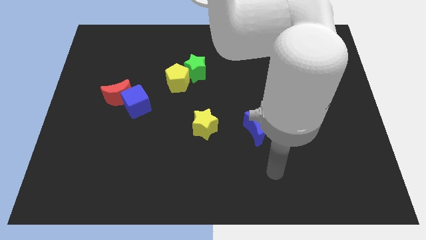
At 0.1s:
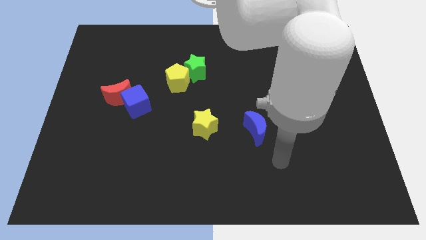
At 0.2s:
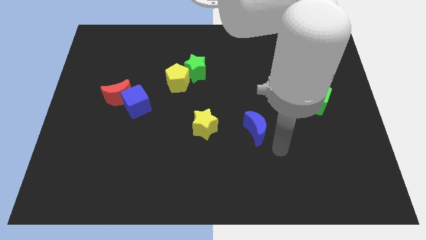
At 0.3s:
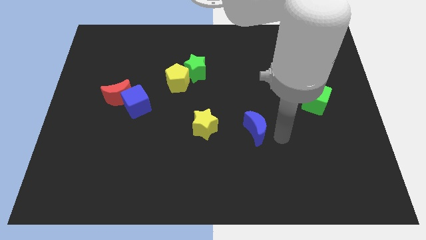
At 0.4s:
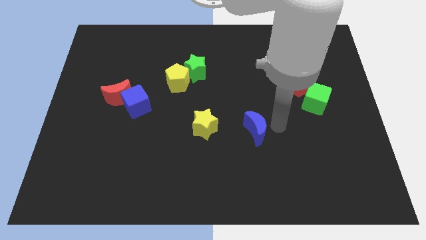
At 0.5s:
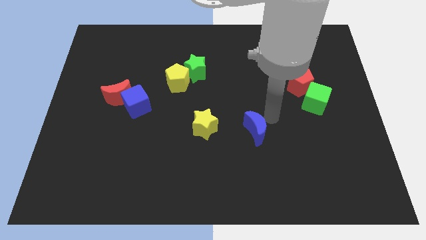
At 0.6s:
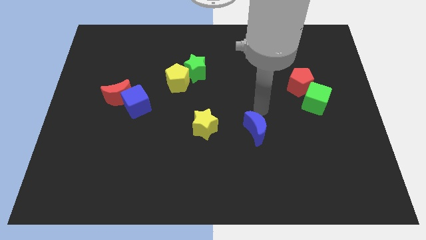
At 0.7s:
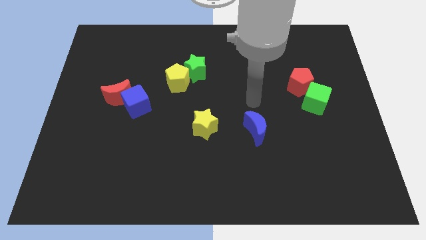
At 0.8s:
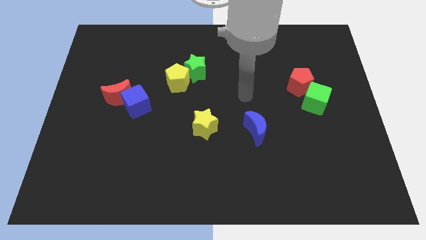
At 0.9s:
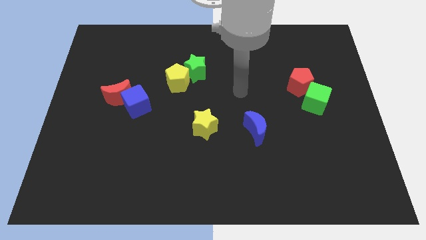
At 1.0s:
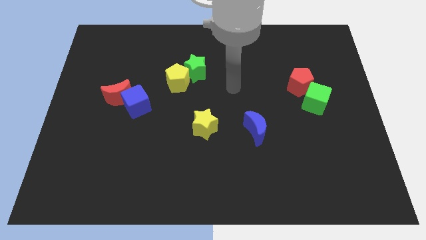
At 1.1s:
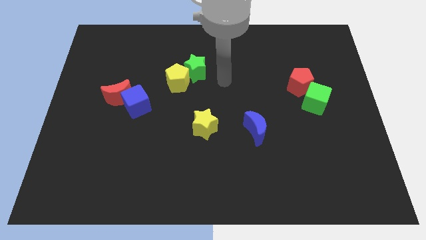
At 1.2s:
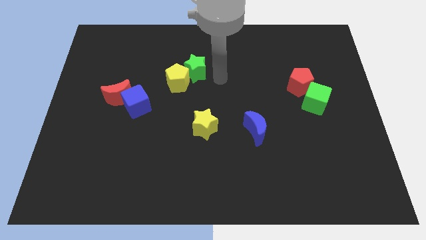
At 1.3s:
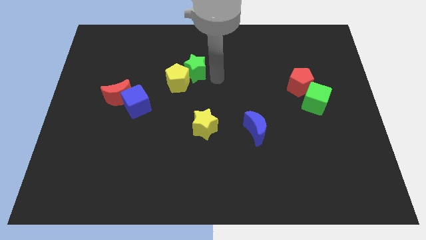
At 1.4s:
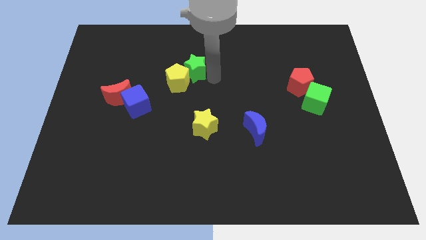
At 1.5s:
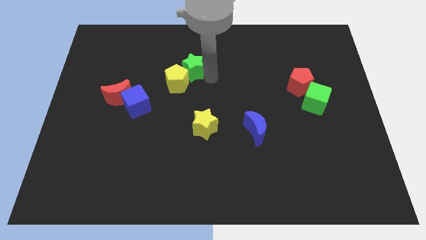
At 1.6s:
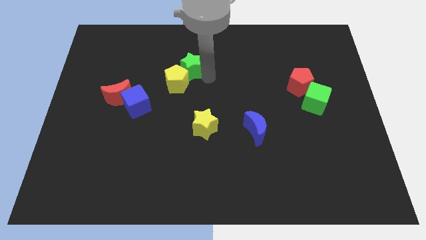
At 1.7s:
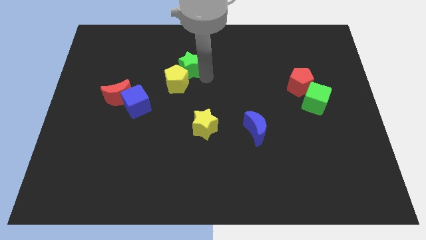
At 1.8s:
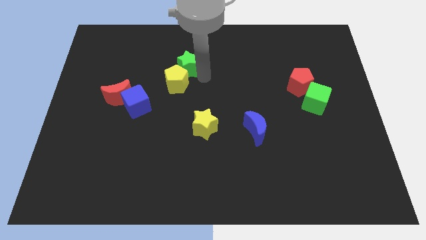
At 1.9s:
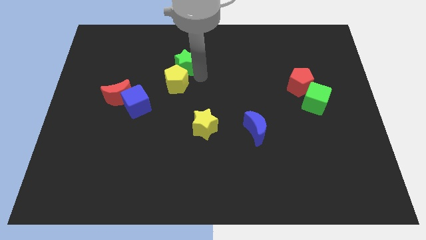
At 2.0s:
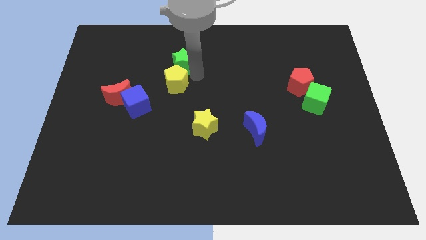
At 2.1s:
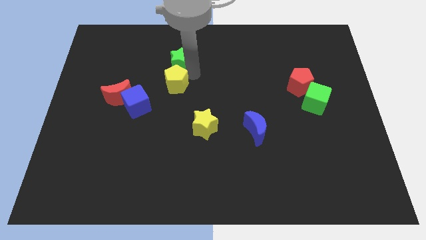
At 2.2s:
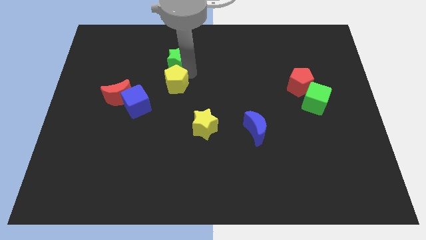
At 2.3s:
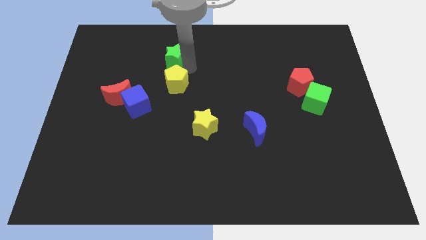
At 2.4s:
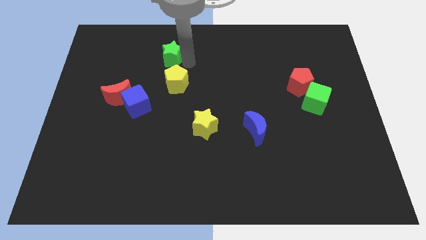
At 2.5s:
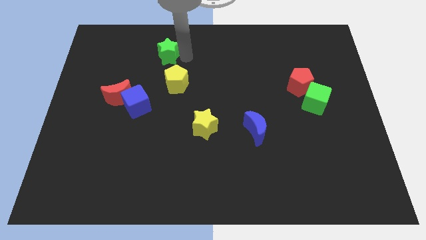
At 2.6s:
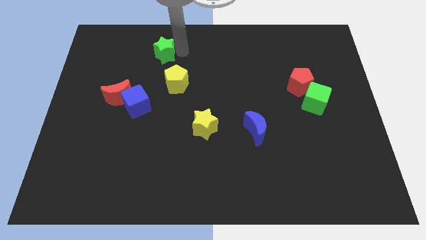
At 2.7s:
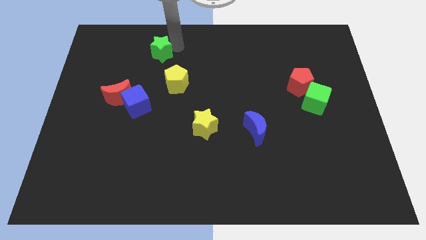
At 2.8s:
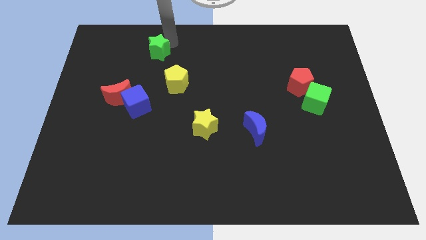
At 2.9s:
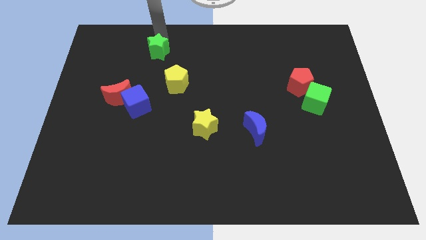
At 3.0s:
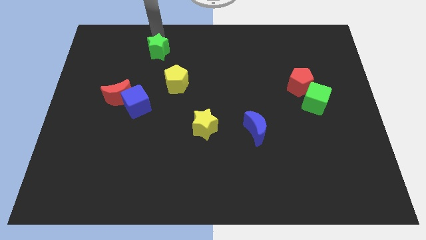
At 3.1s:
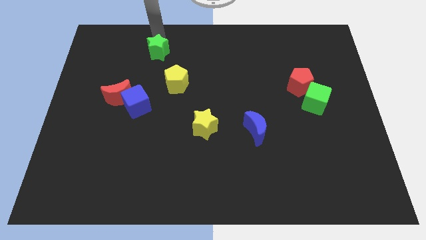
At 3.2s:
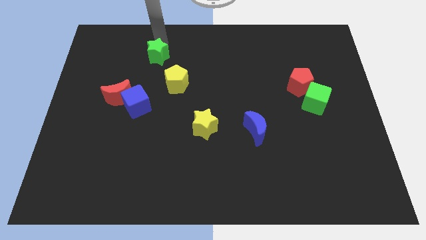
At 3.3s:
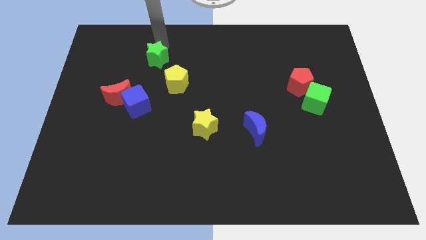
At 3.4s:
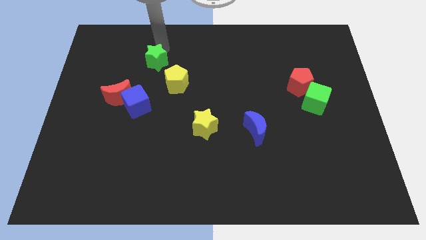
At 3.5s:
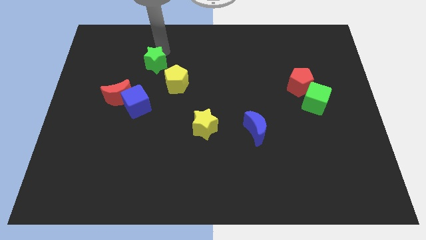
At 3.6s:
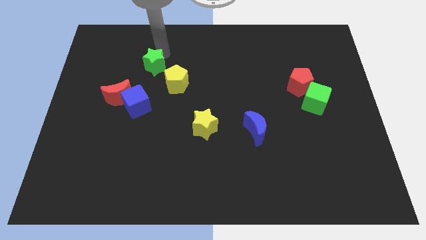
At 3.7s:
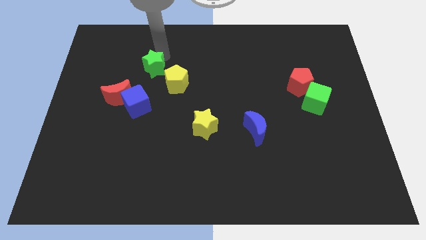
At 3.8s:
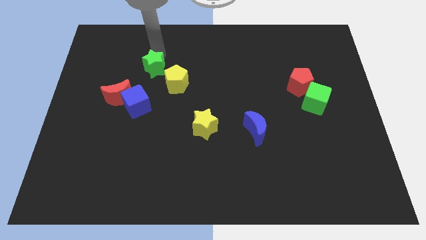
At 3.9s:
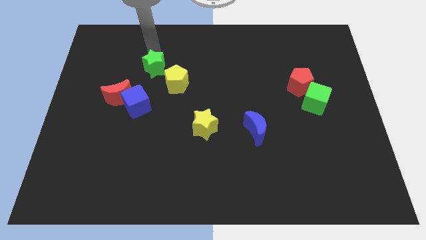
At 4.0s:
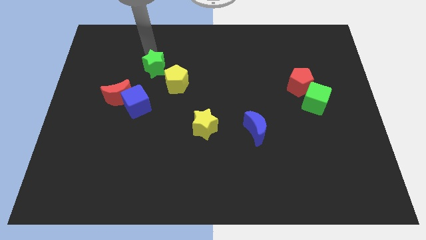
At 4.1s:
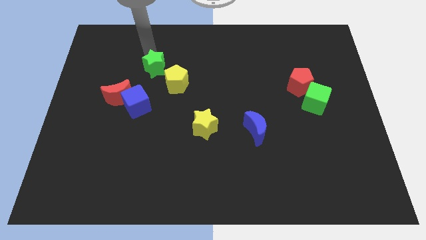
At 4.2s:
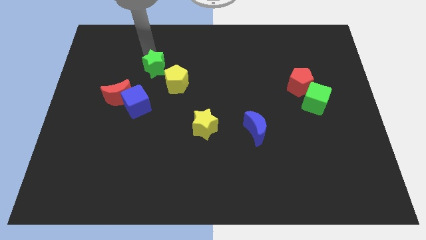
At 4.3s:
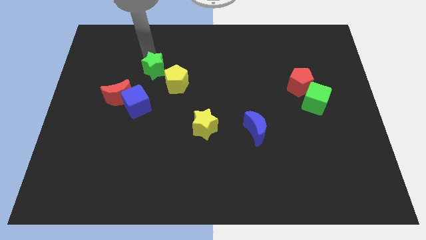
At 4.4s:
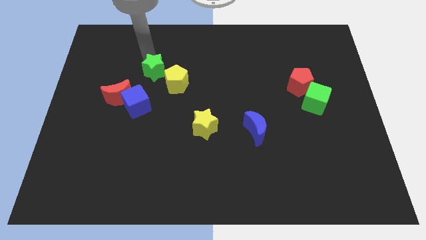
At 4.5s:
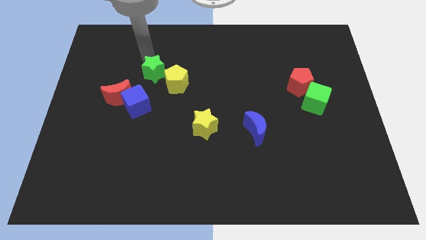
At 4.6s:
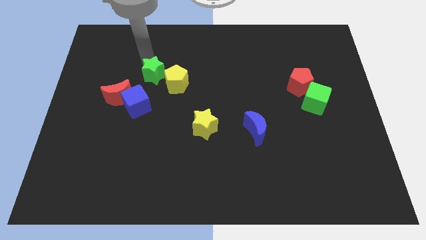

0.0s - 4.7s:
move the green star to the top right side of the blue cube

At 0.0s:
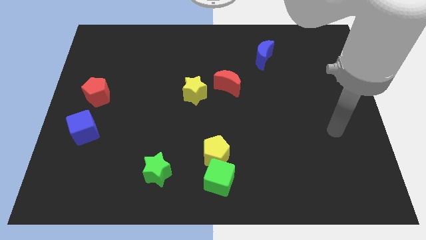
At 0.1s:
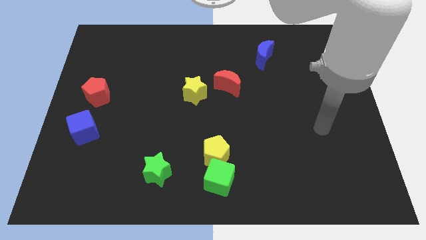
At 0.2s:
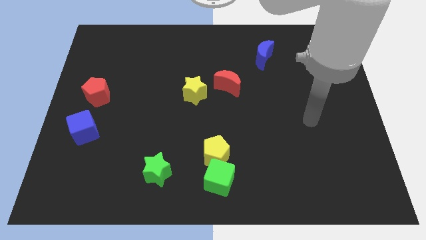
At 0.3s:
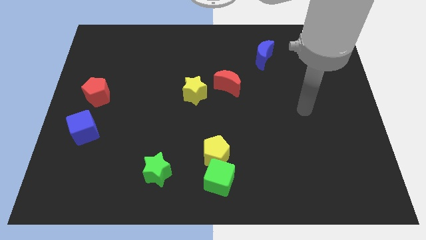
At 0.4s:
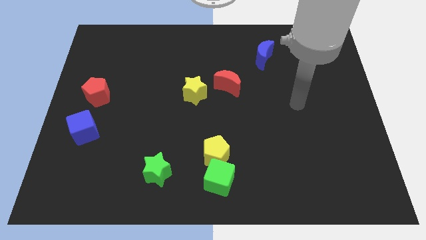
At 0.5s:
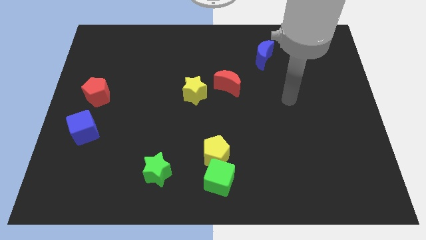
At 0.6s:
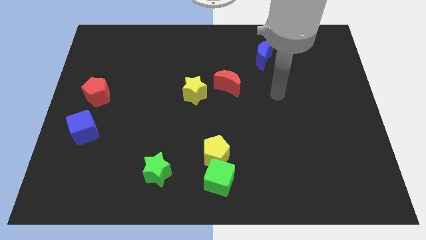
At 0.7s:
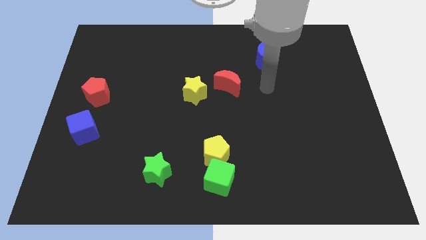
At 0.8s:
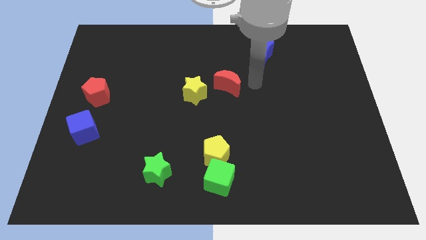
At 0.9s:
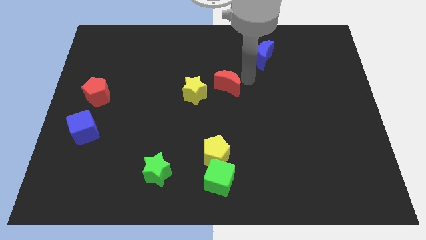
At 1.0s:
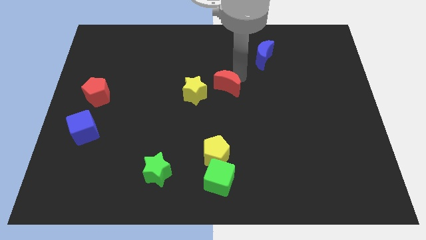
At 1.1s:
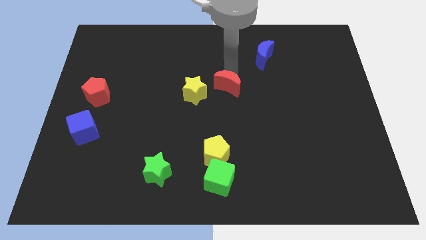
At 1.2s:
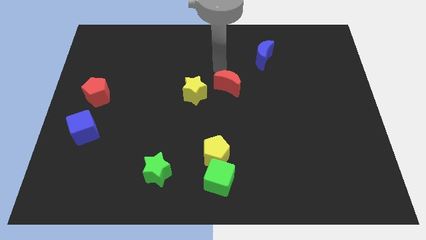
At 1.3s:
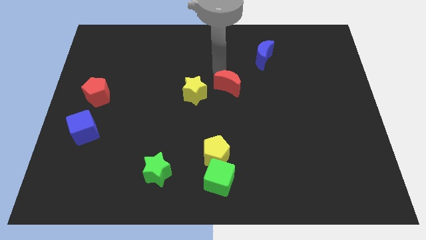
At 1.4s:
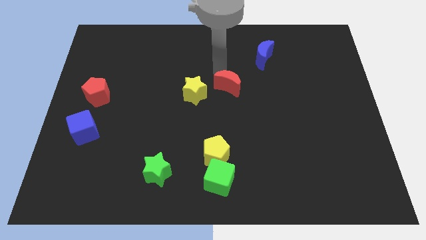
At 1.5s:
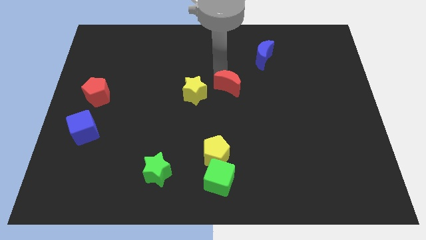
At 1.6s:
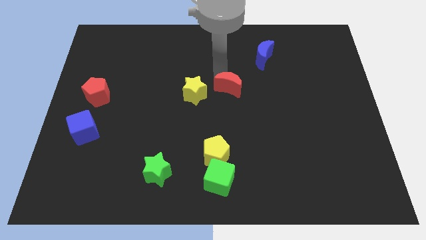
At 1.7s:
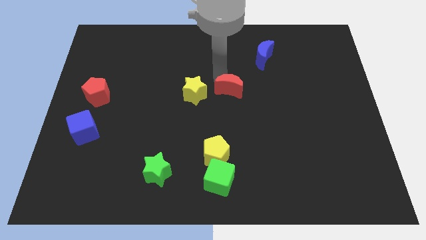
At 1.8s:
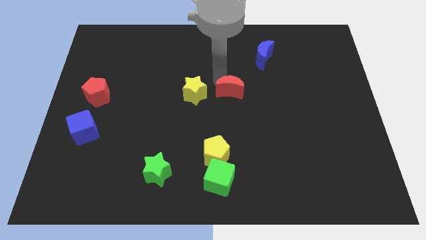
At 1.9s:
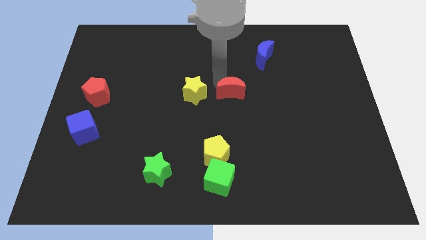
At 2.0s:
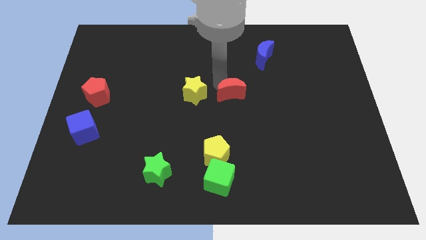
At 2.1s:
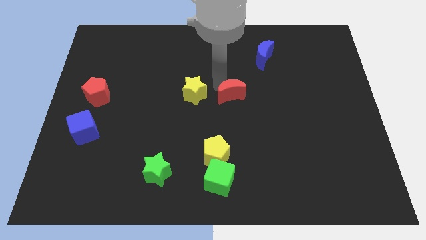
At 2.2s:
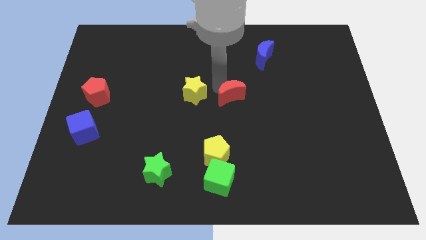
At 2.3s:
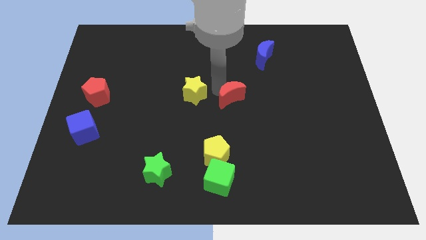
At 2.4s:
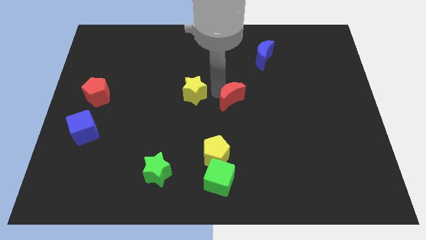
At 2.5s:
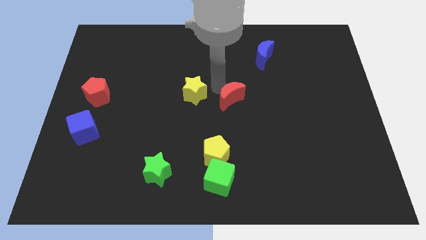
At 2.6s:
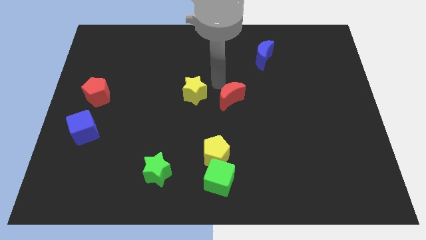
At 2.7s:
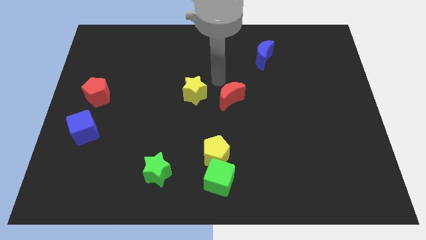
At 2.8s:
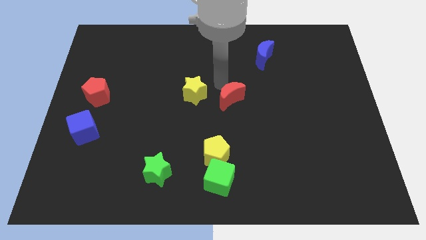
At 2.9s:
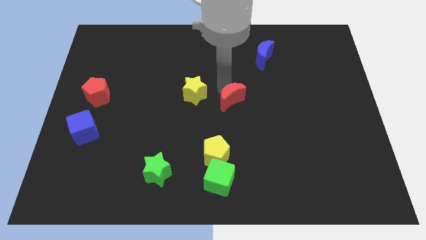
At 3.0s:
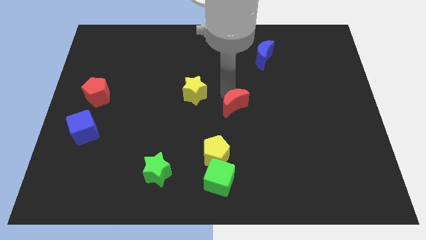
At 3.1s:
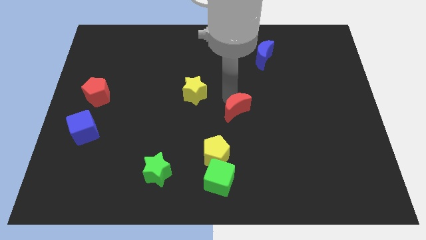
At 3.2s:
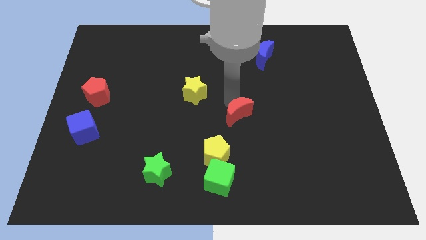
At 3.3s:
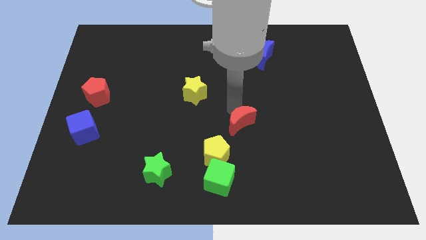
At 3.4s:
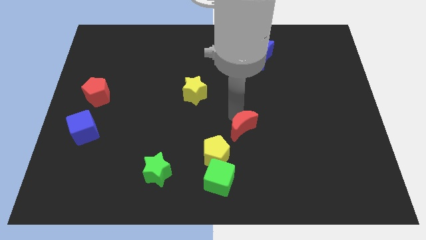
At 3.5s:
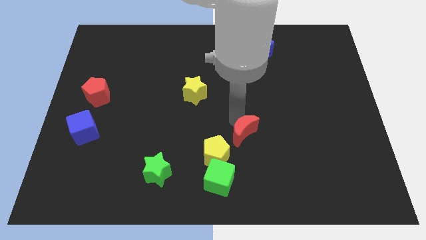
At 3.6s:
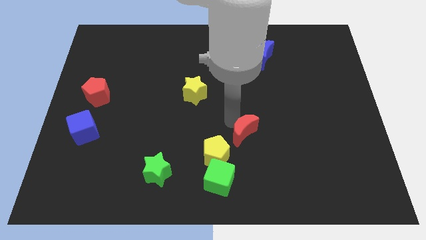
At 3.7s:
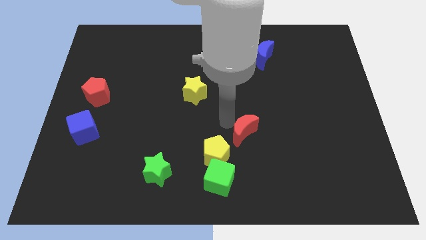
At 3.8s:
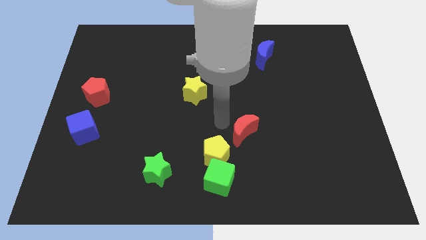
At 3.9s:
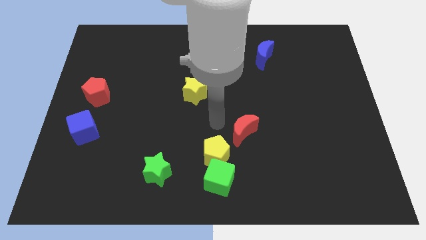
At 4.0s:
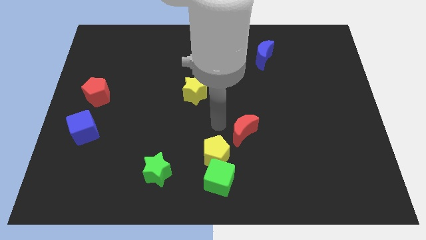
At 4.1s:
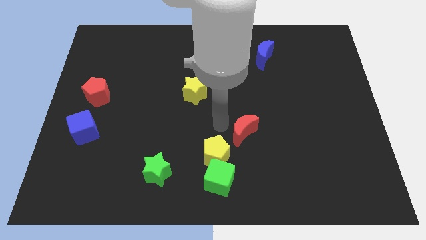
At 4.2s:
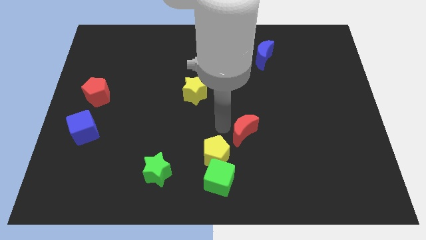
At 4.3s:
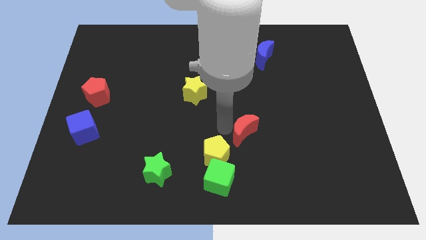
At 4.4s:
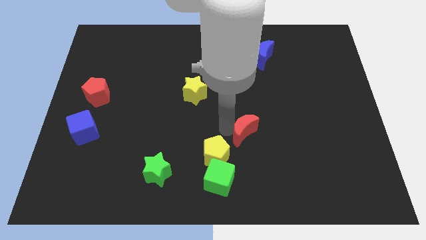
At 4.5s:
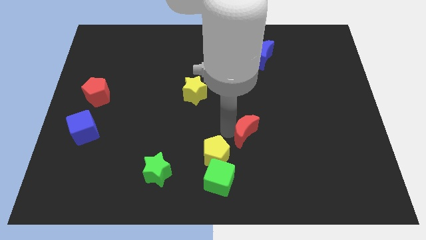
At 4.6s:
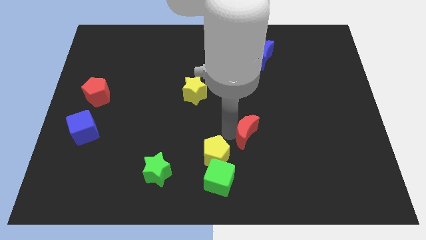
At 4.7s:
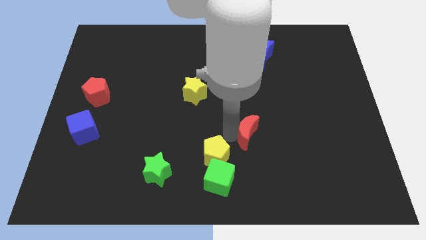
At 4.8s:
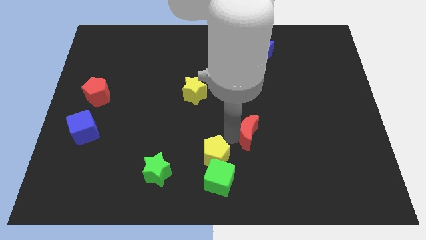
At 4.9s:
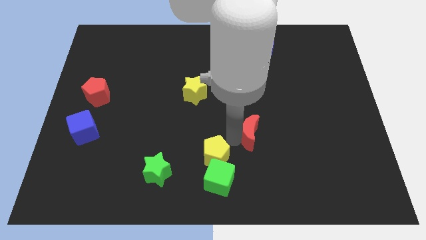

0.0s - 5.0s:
move the red moon right of the yellow pentagon
